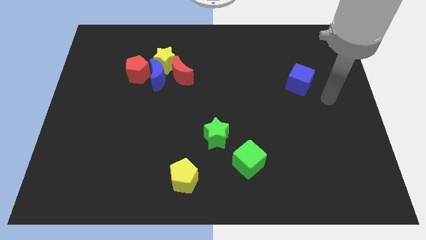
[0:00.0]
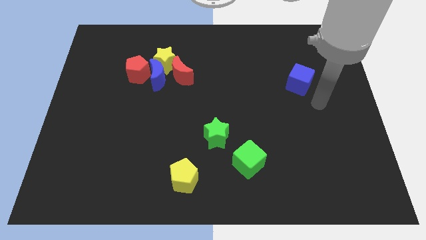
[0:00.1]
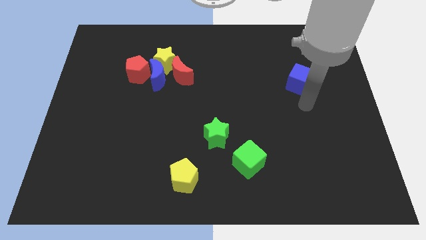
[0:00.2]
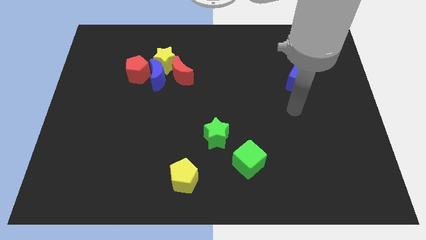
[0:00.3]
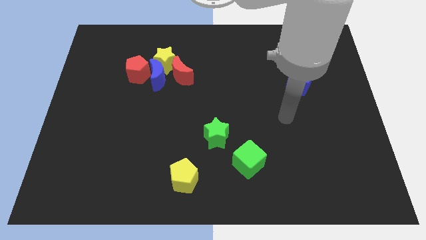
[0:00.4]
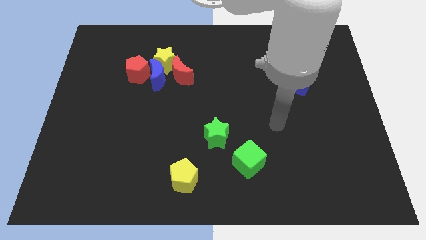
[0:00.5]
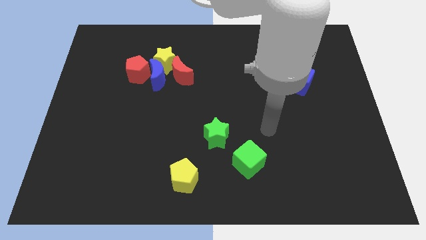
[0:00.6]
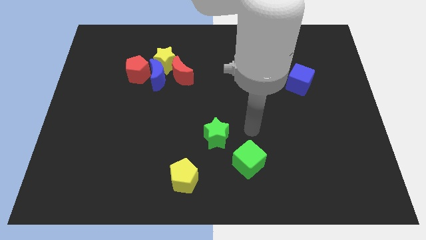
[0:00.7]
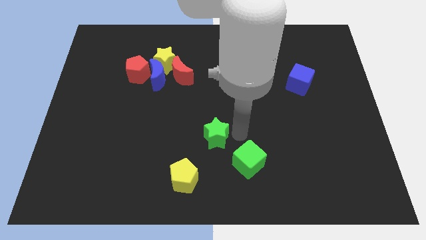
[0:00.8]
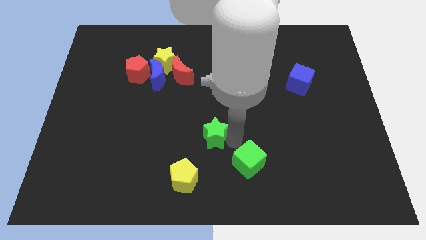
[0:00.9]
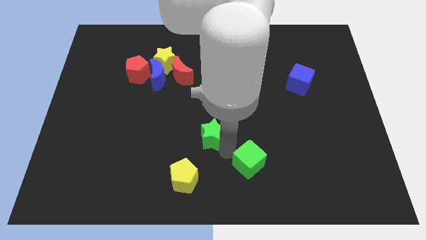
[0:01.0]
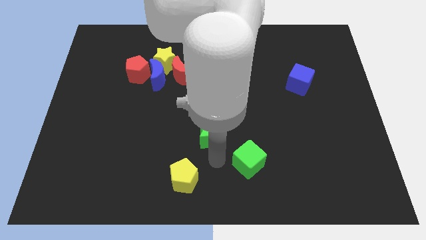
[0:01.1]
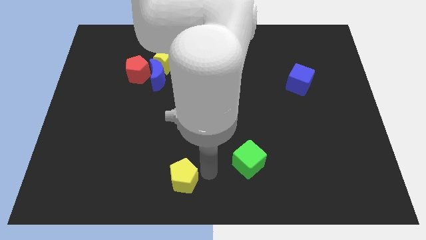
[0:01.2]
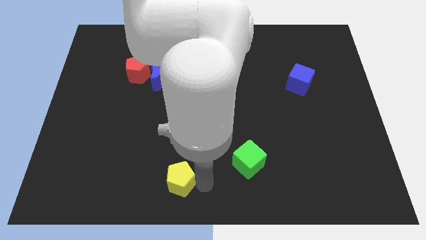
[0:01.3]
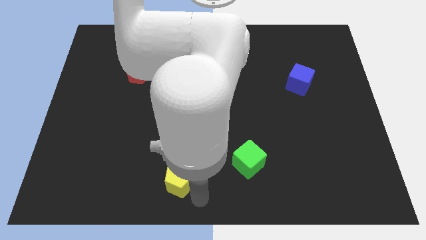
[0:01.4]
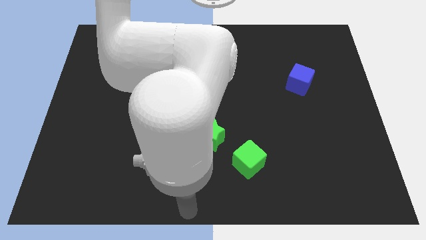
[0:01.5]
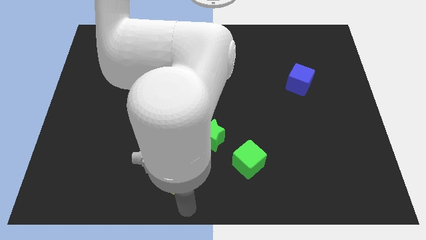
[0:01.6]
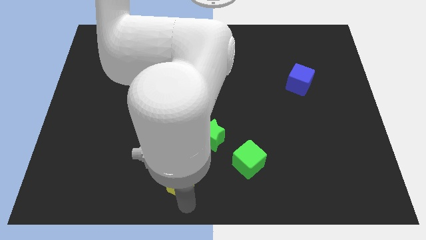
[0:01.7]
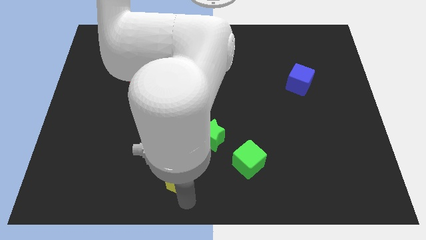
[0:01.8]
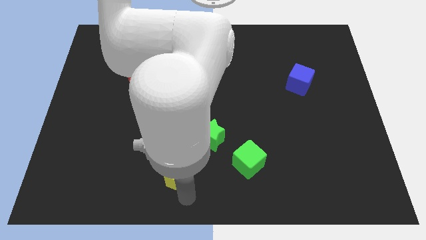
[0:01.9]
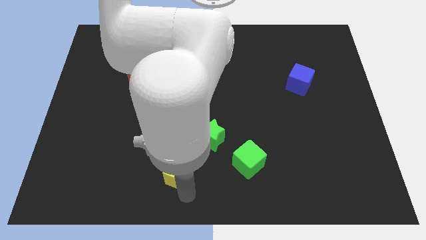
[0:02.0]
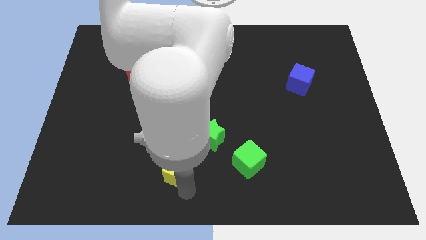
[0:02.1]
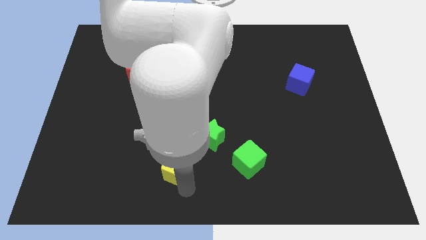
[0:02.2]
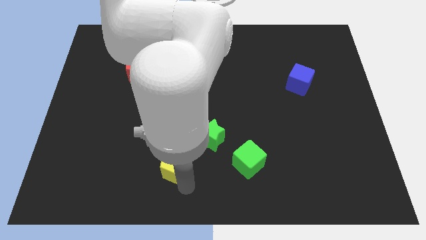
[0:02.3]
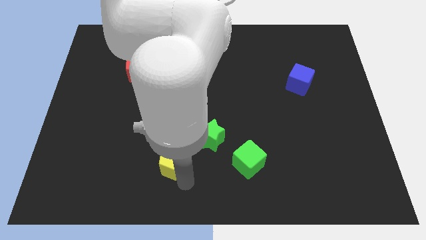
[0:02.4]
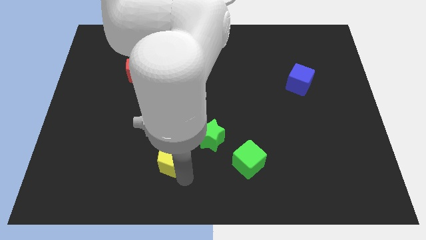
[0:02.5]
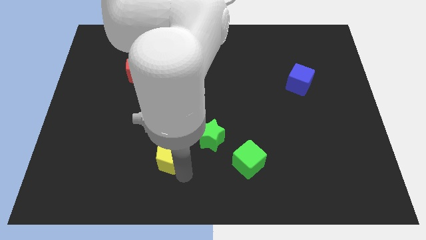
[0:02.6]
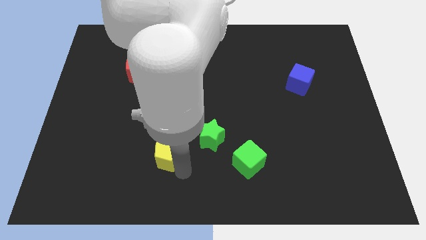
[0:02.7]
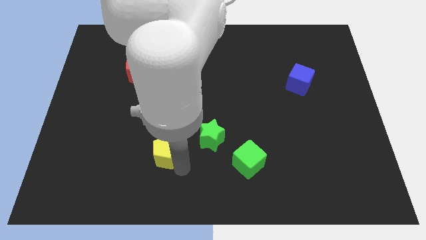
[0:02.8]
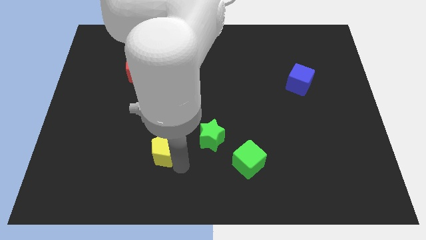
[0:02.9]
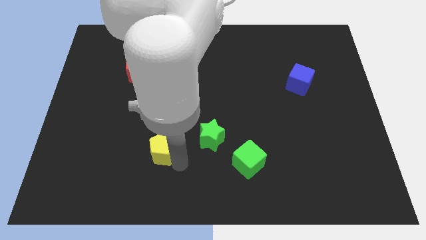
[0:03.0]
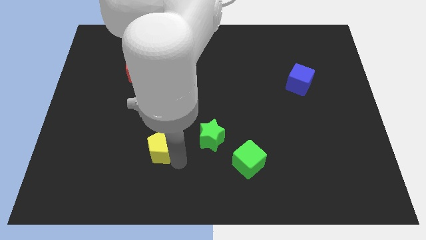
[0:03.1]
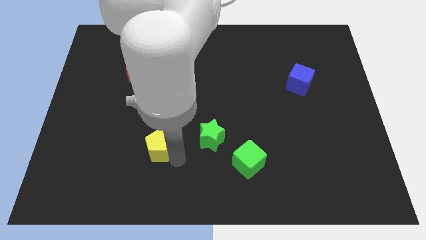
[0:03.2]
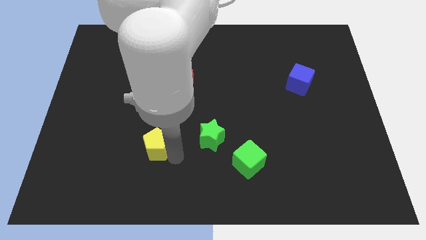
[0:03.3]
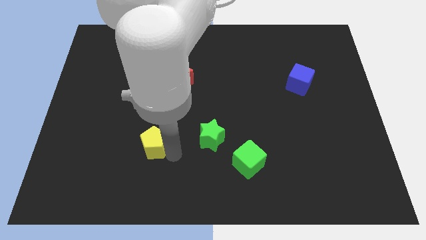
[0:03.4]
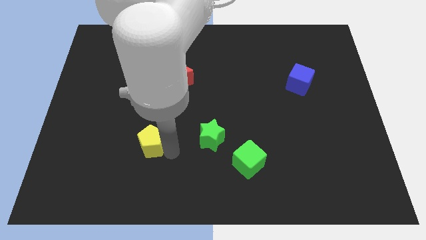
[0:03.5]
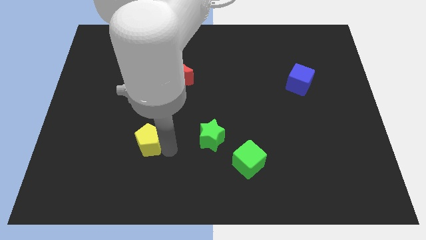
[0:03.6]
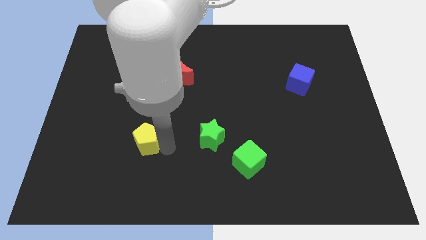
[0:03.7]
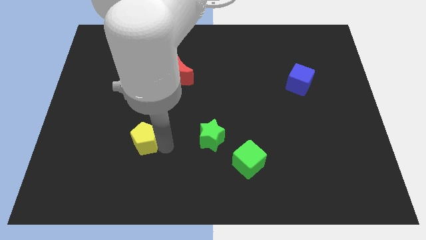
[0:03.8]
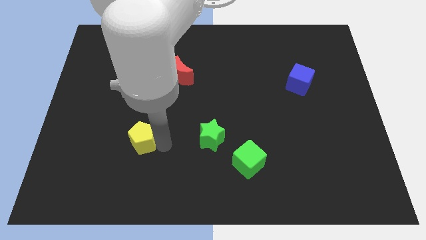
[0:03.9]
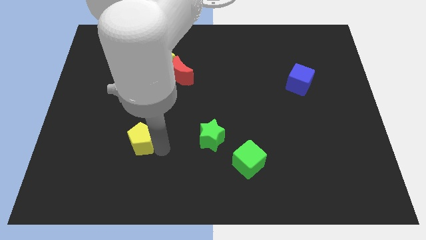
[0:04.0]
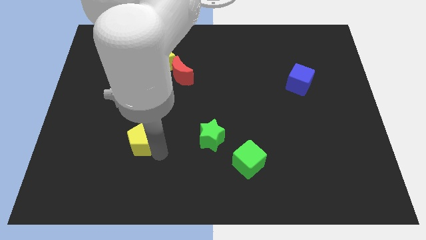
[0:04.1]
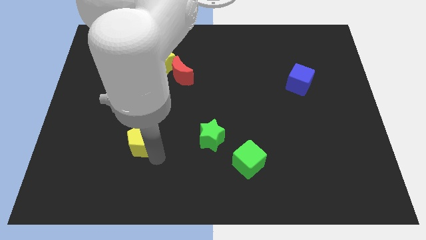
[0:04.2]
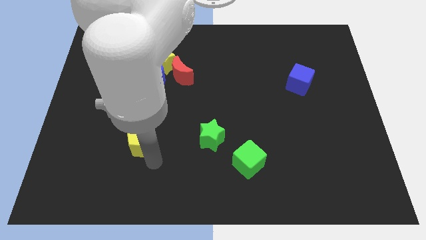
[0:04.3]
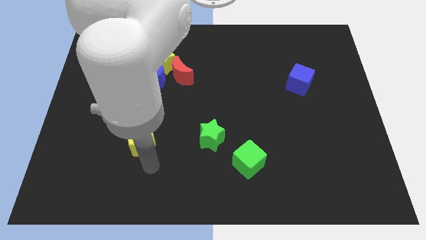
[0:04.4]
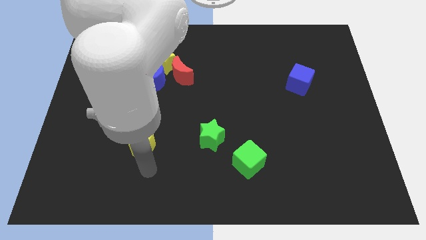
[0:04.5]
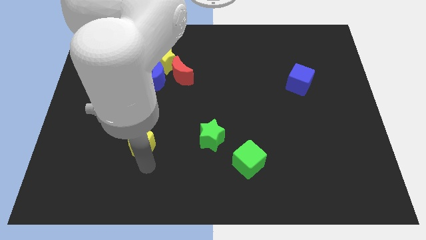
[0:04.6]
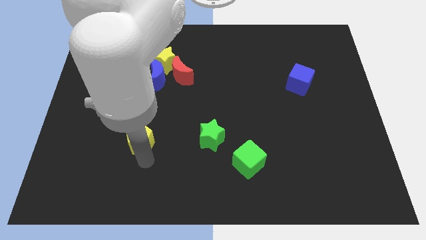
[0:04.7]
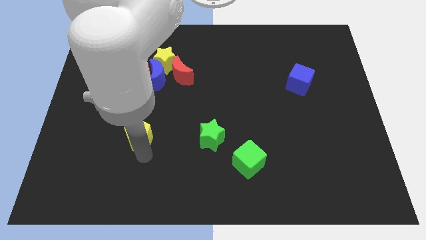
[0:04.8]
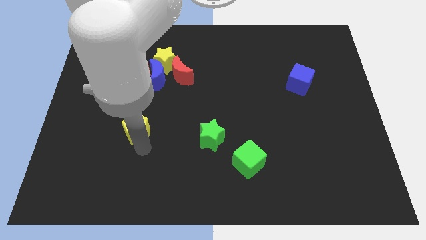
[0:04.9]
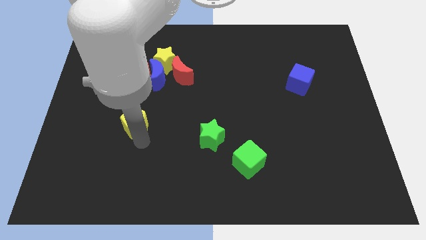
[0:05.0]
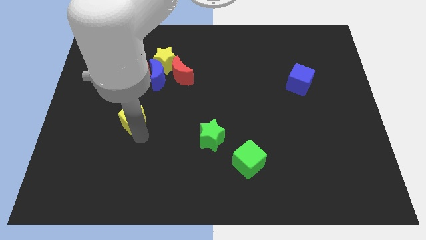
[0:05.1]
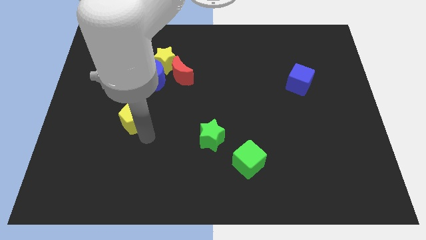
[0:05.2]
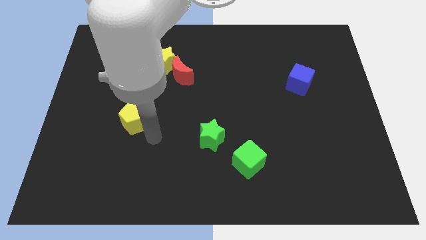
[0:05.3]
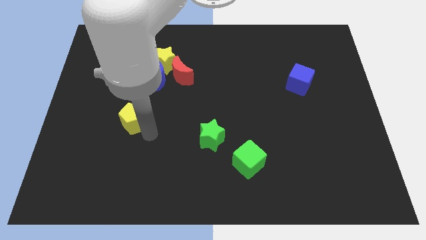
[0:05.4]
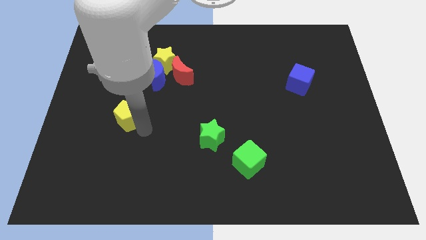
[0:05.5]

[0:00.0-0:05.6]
push the yellow pentagon upwards and to the left diagonally

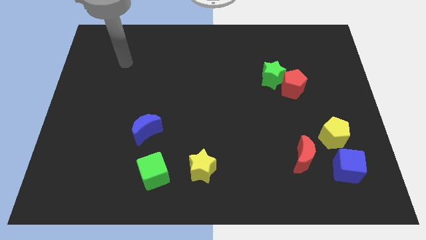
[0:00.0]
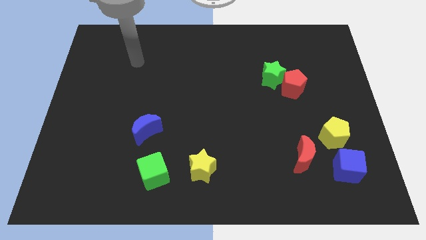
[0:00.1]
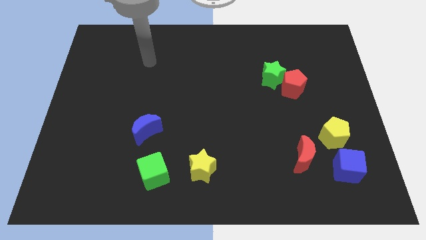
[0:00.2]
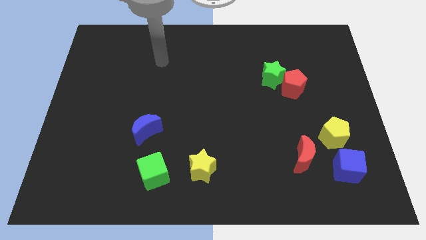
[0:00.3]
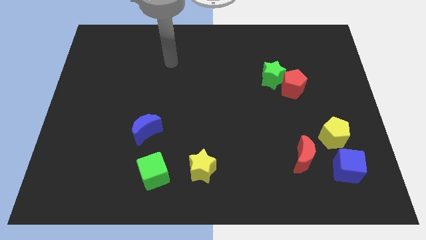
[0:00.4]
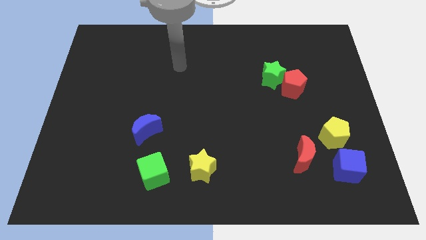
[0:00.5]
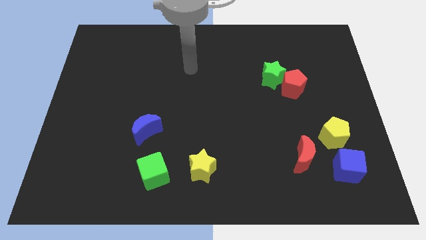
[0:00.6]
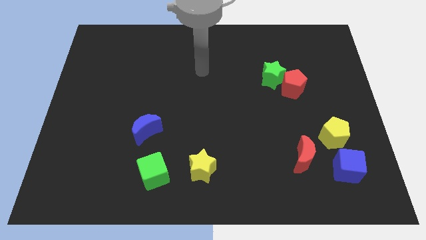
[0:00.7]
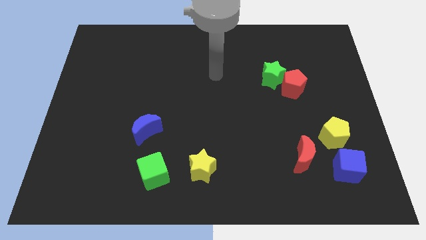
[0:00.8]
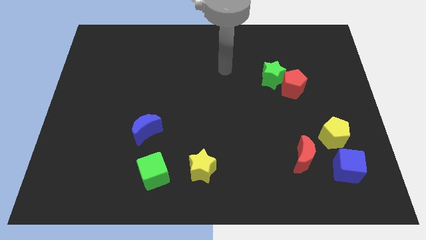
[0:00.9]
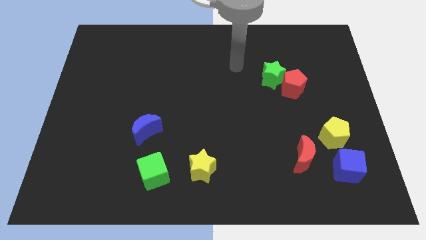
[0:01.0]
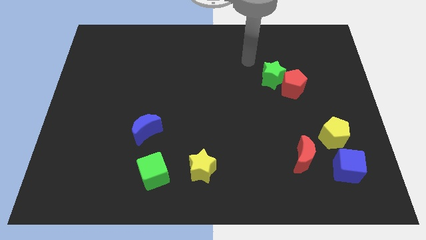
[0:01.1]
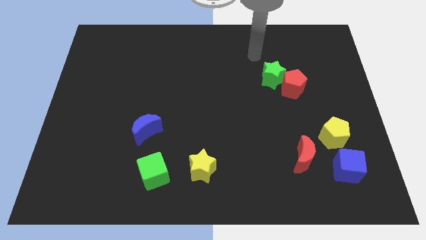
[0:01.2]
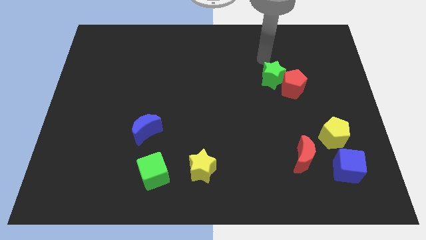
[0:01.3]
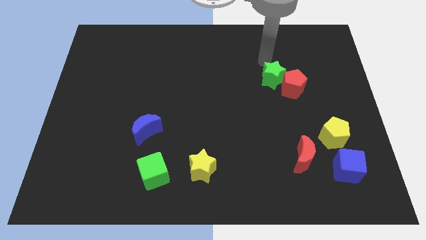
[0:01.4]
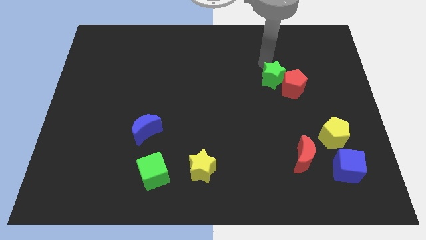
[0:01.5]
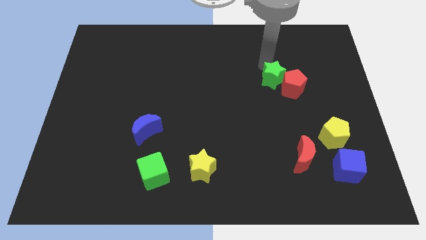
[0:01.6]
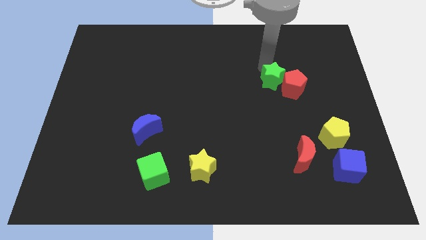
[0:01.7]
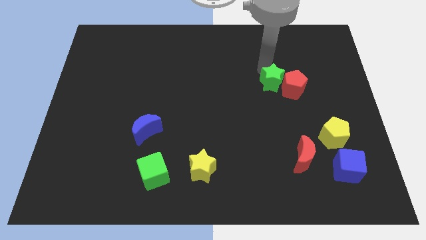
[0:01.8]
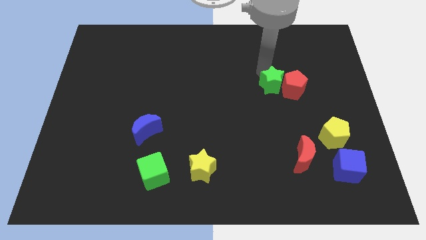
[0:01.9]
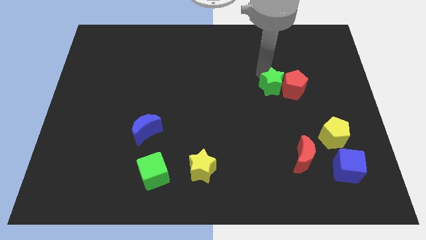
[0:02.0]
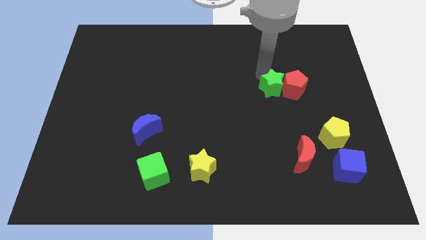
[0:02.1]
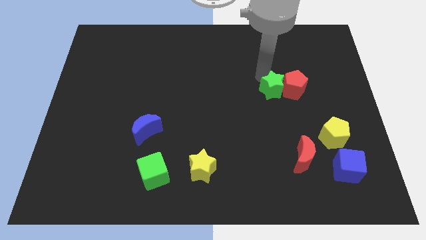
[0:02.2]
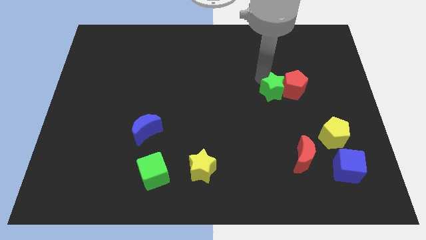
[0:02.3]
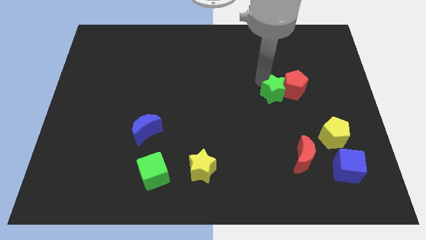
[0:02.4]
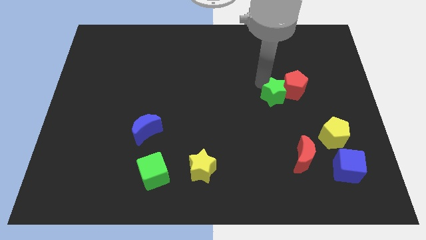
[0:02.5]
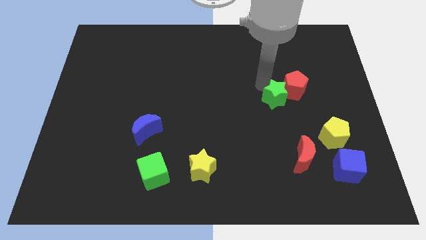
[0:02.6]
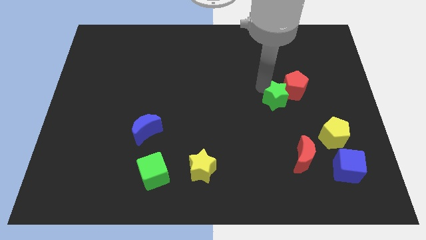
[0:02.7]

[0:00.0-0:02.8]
push the green star down a bit
